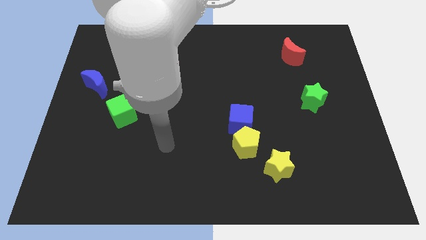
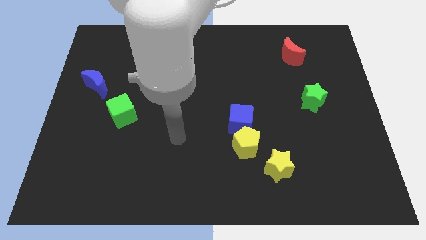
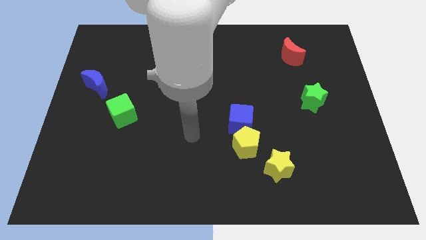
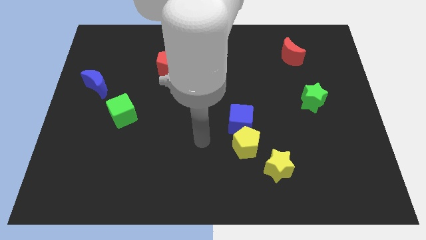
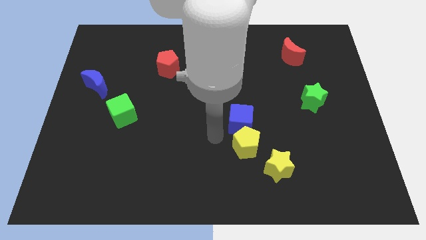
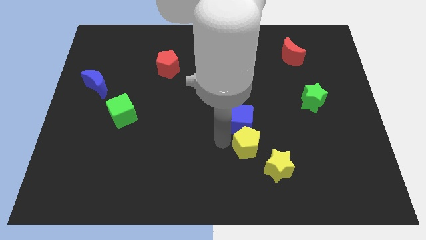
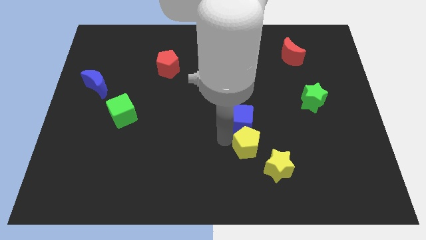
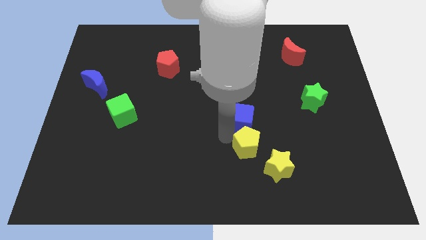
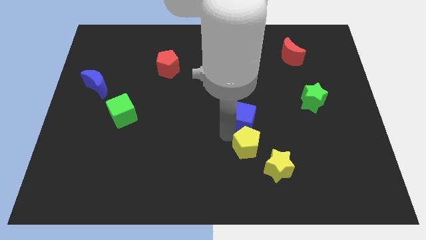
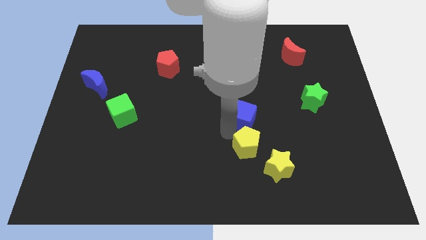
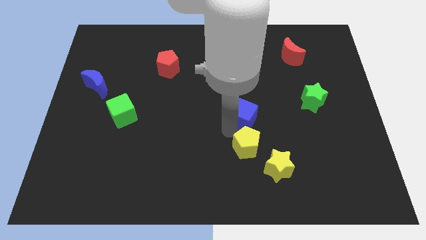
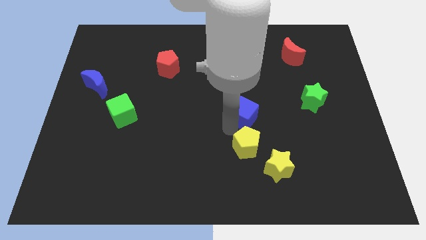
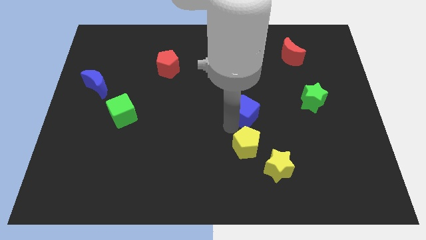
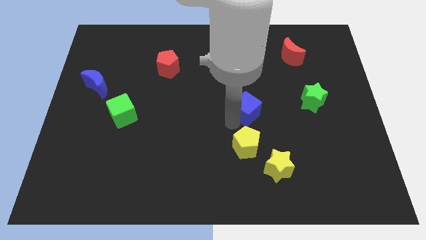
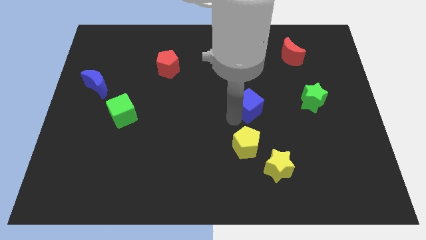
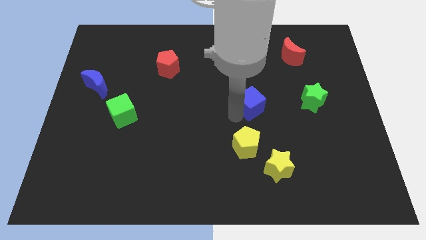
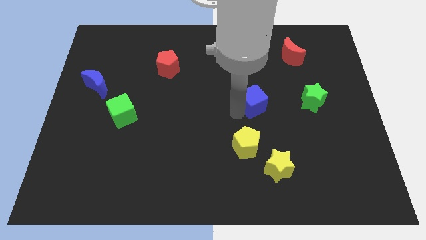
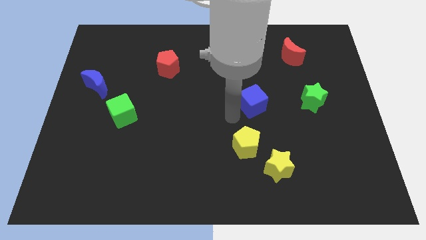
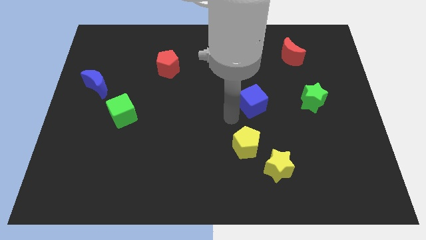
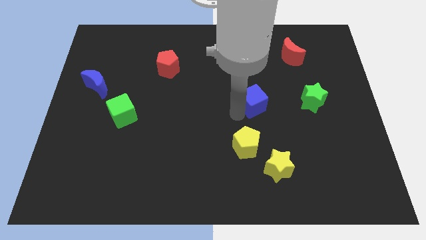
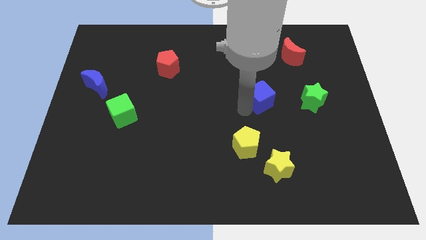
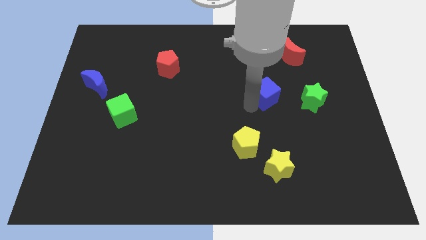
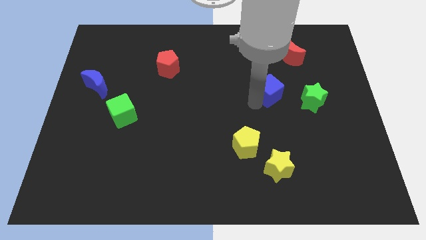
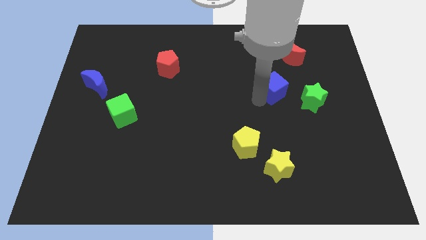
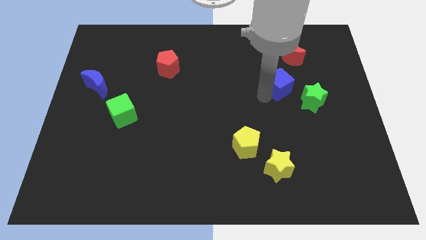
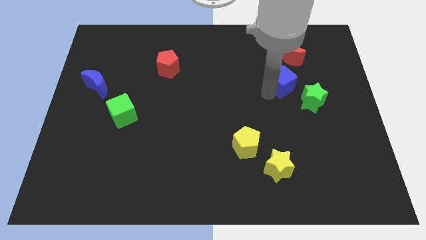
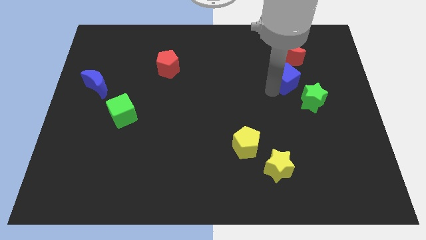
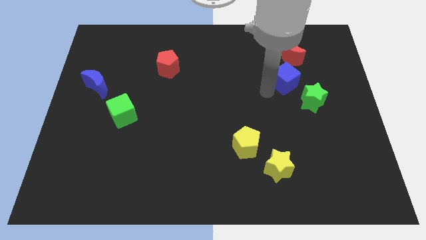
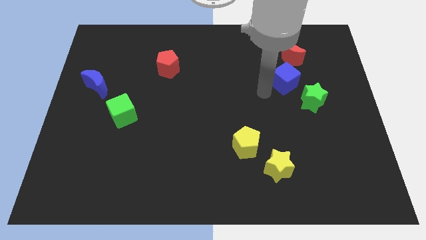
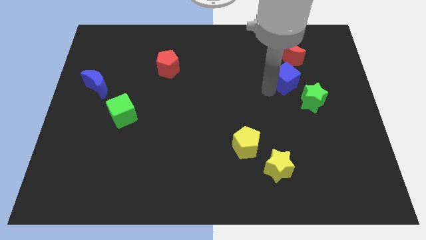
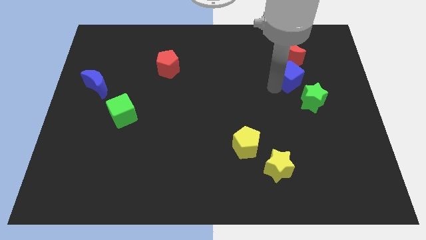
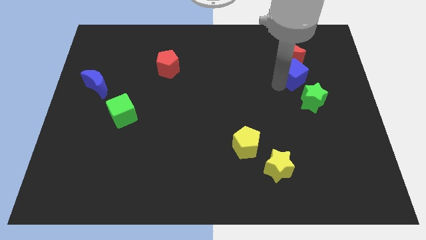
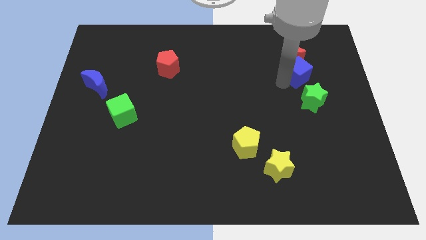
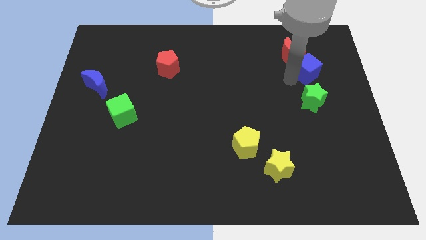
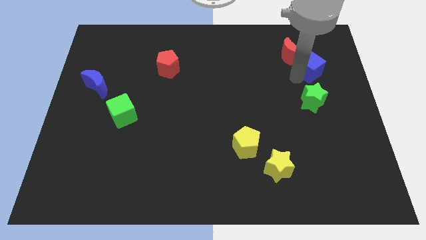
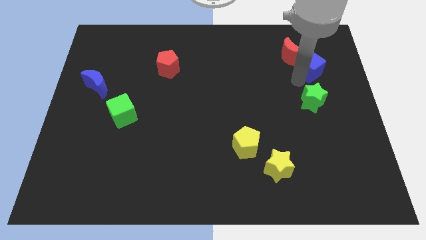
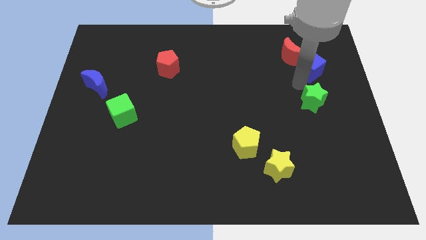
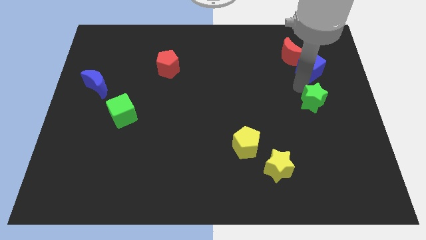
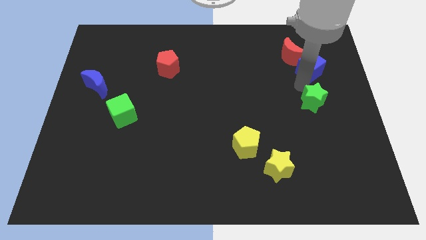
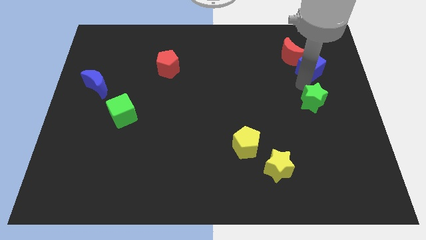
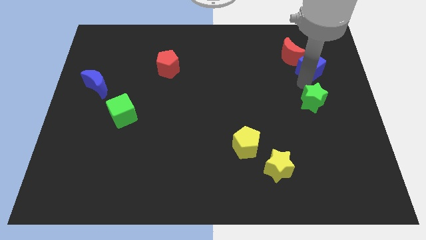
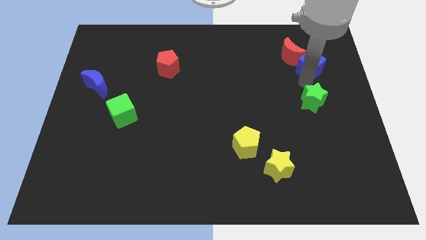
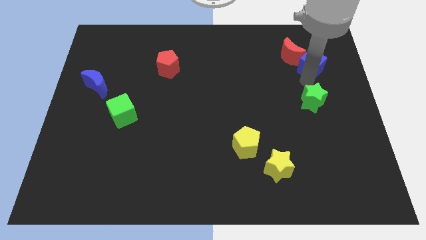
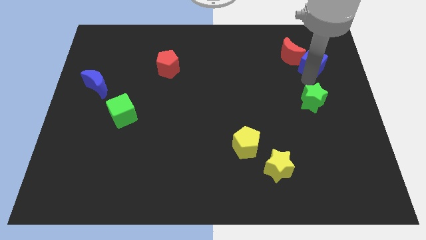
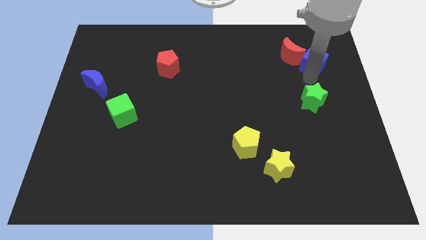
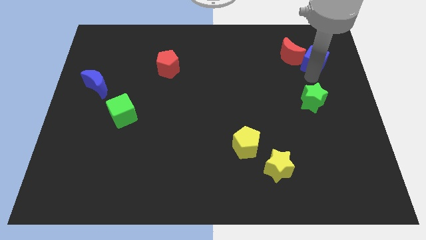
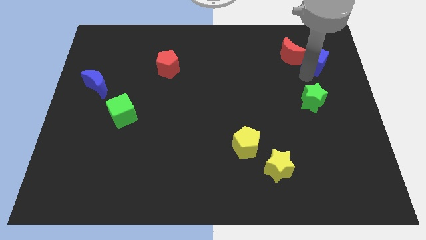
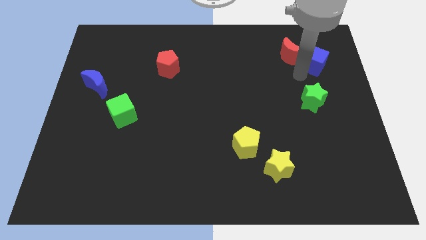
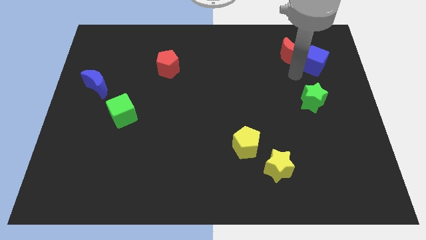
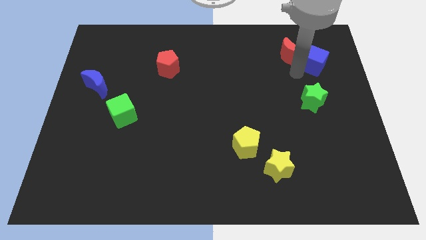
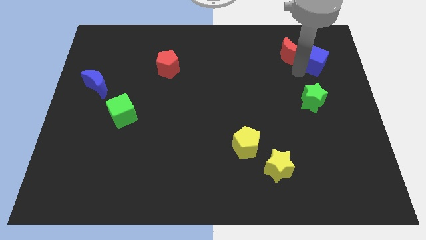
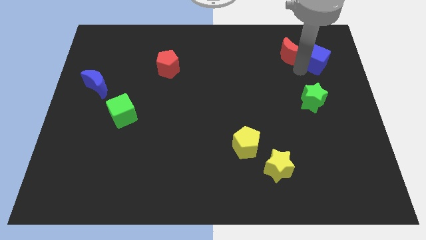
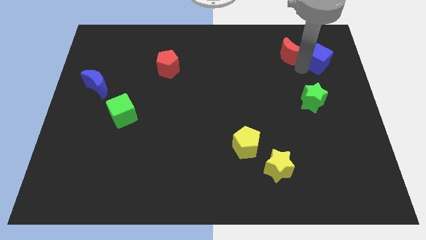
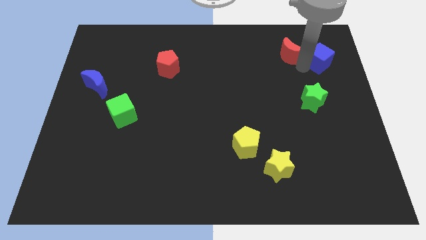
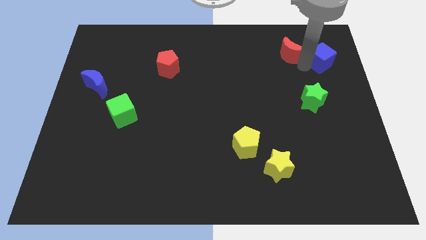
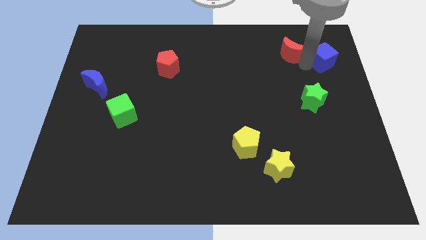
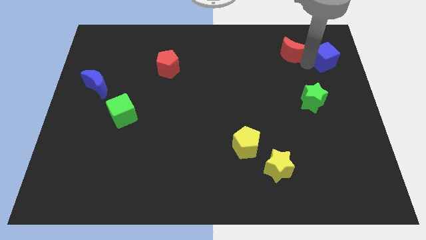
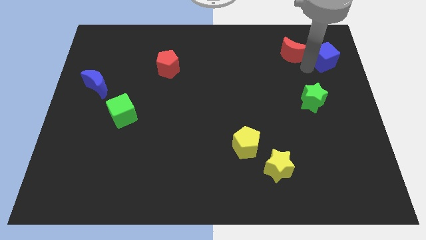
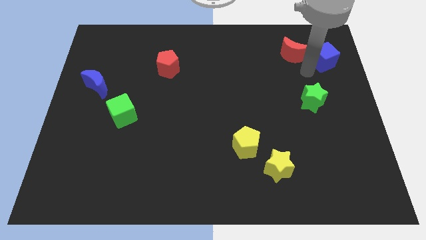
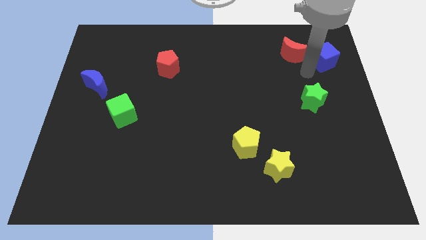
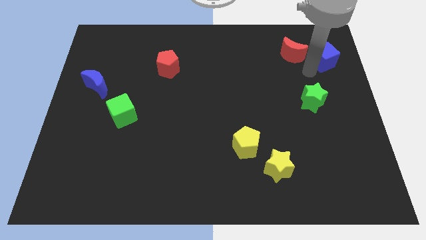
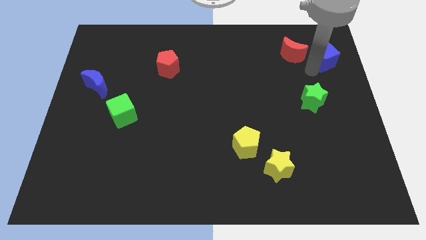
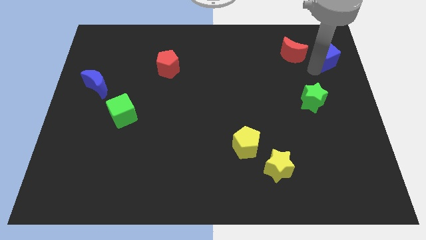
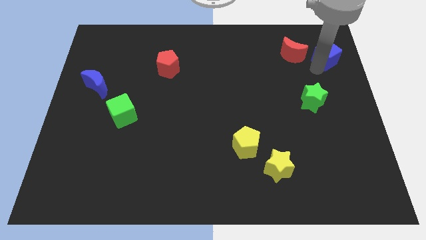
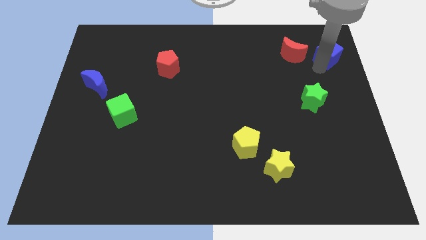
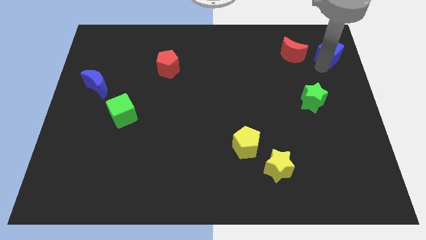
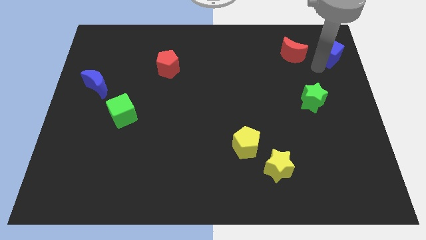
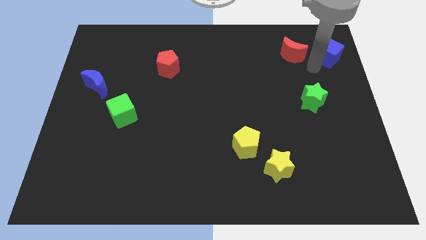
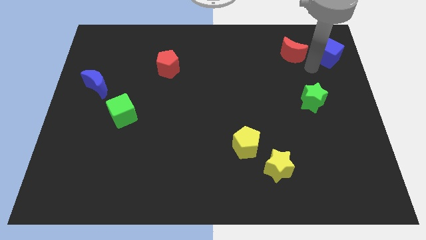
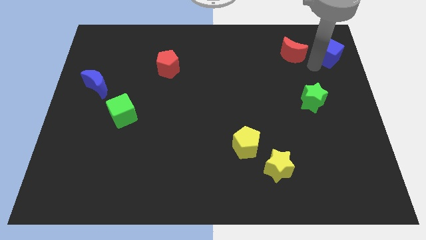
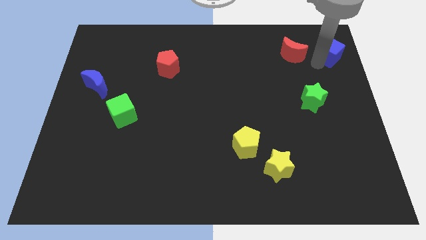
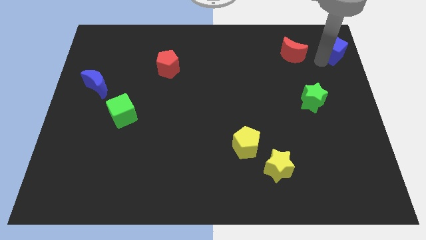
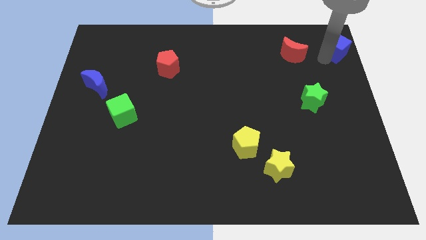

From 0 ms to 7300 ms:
put the blue cube to the upper right corner
